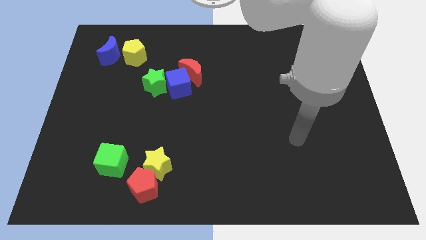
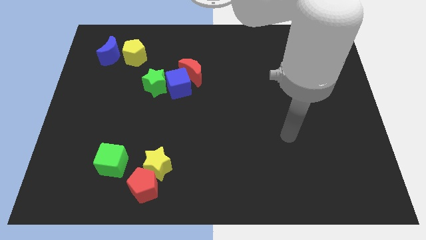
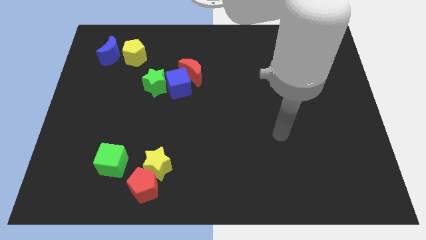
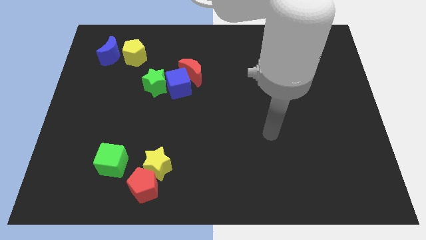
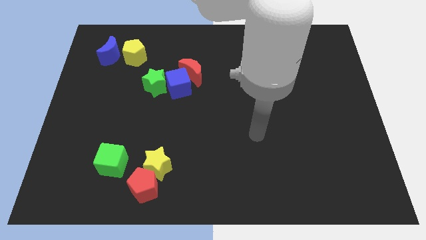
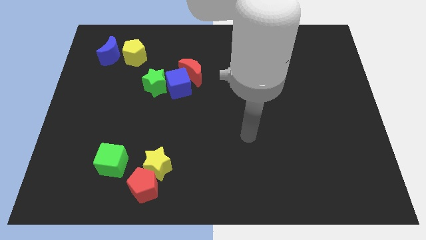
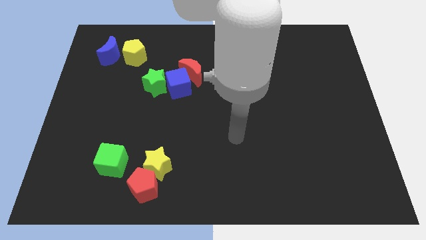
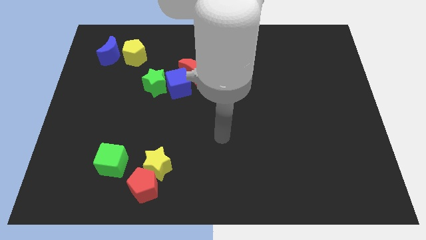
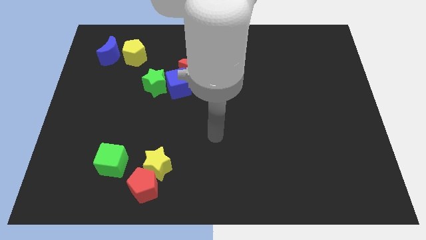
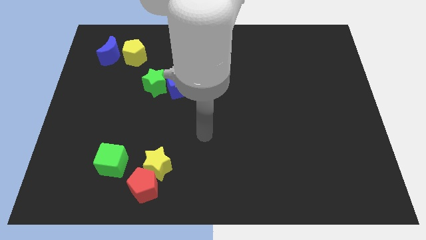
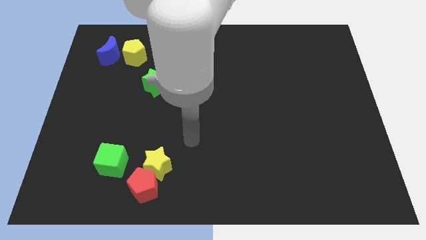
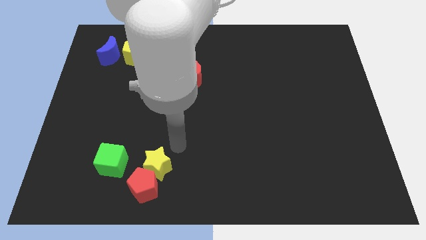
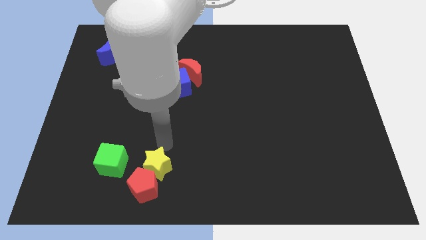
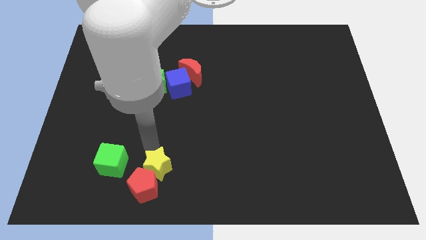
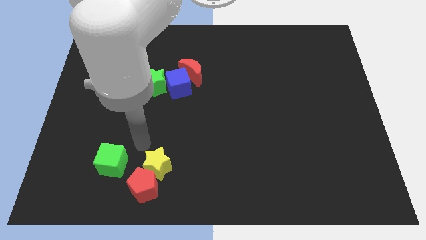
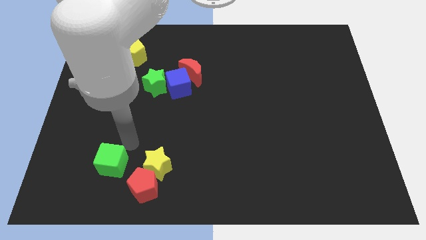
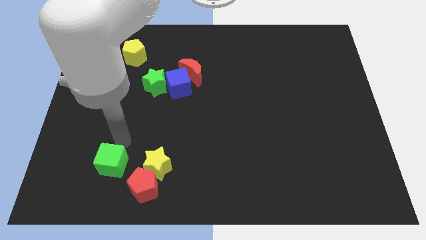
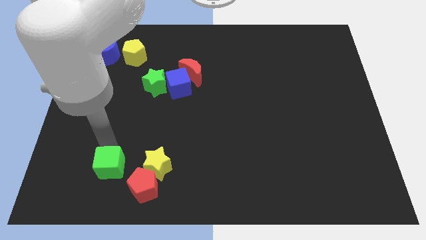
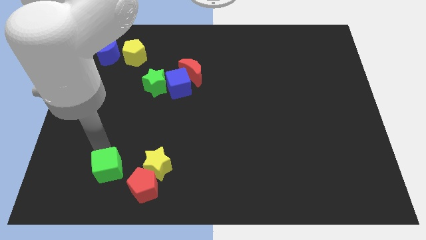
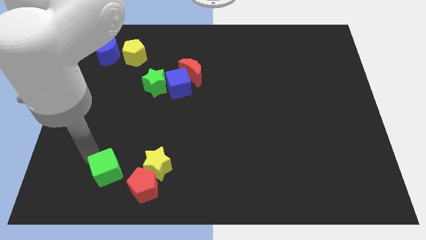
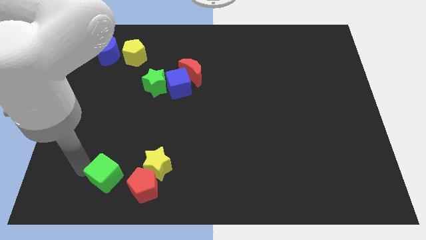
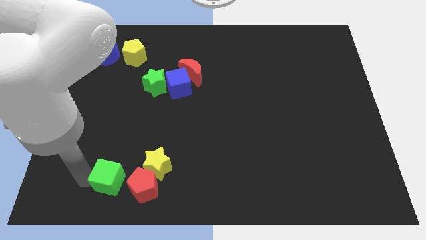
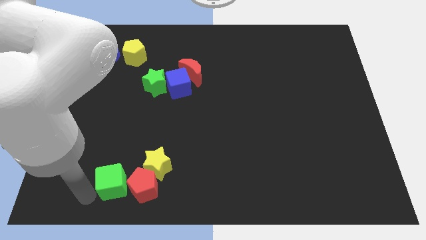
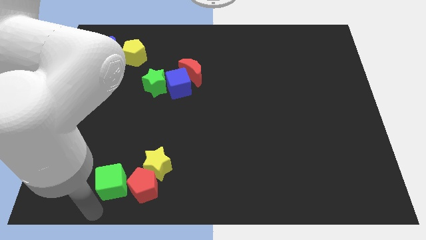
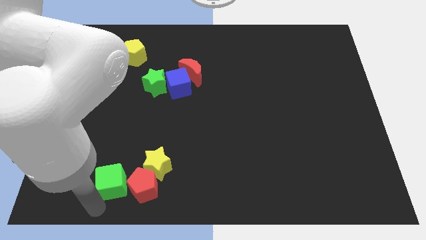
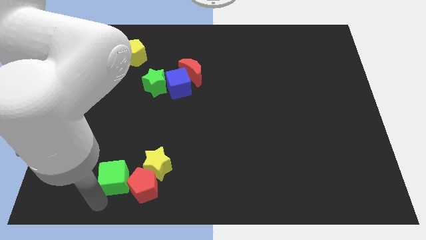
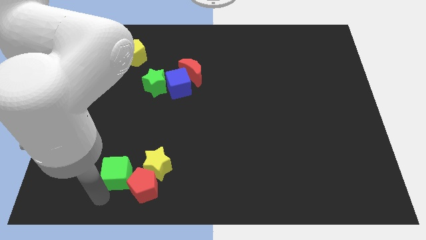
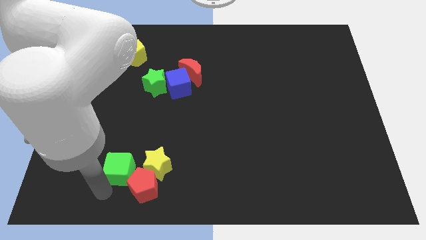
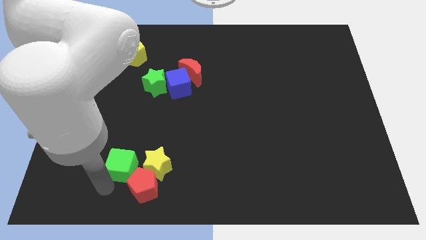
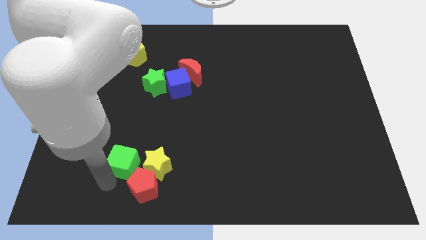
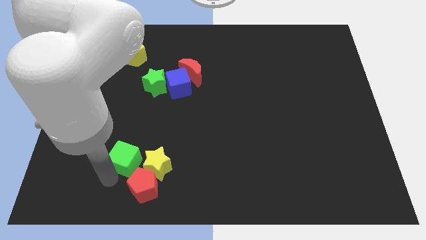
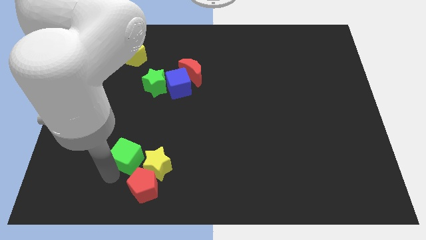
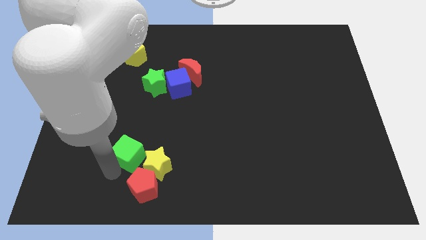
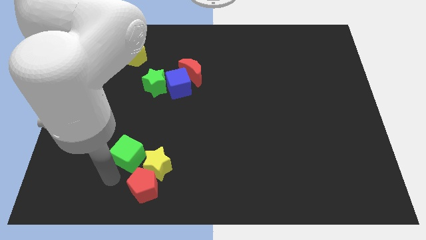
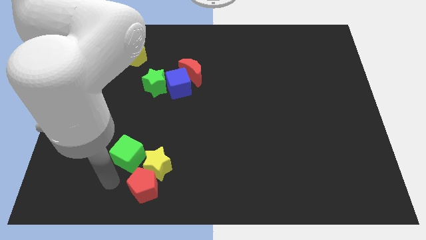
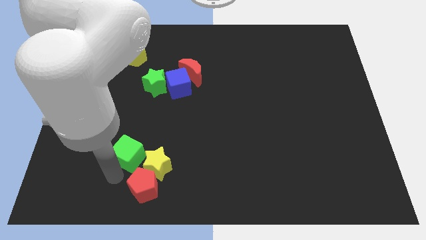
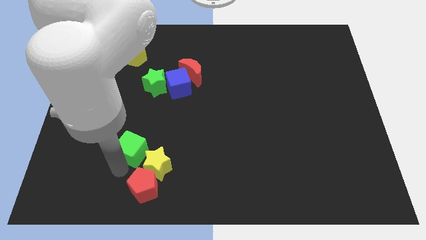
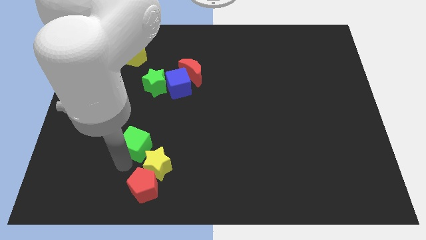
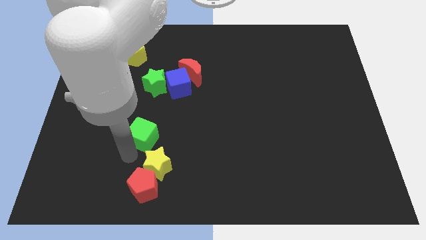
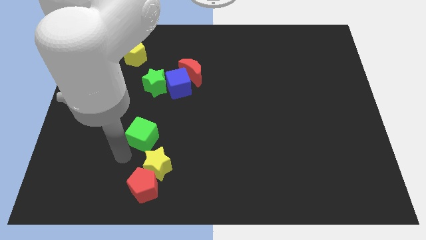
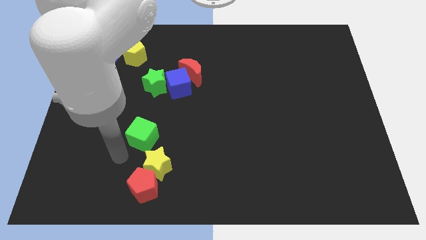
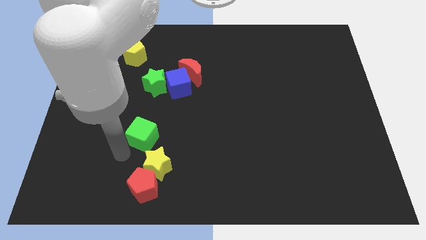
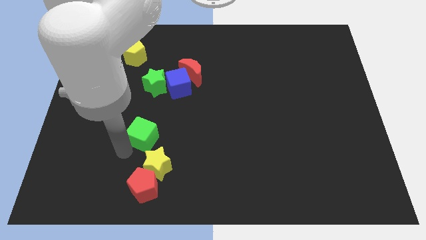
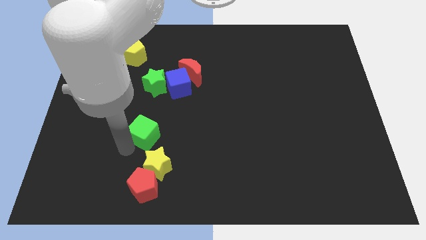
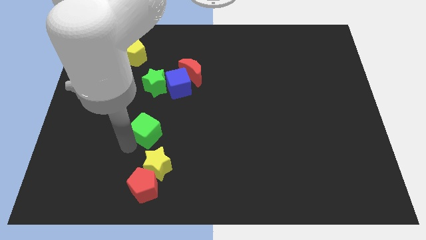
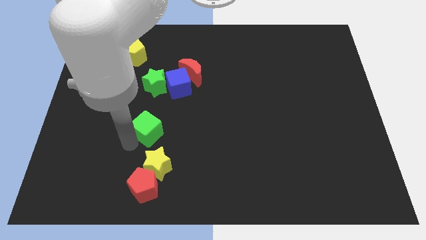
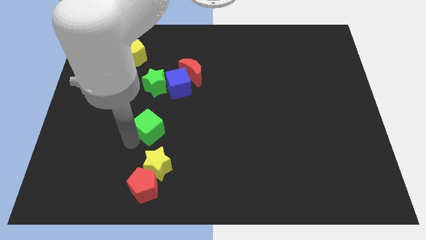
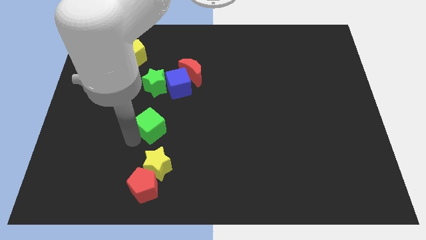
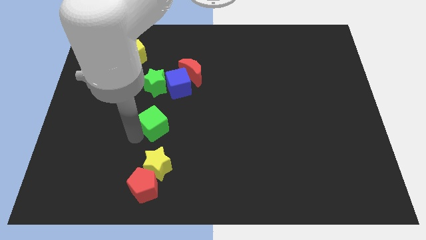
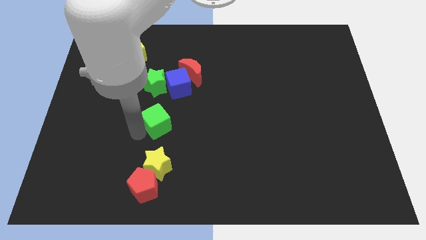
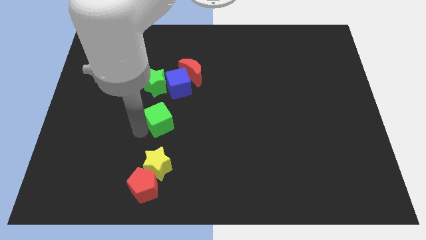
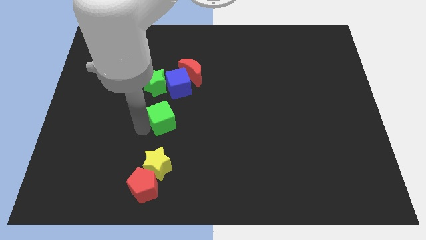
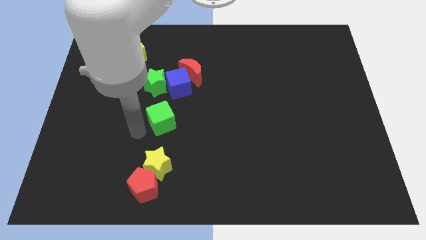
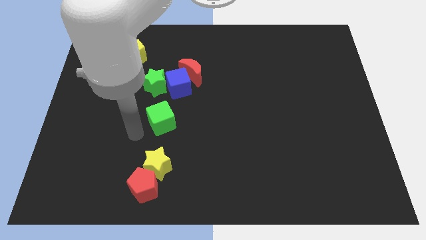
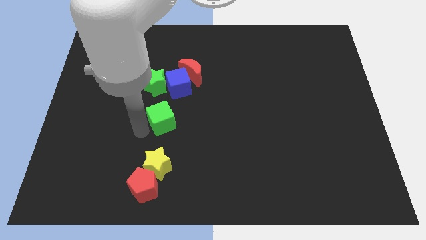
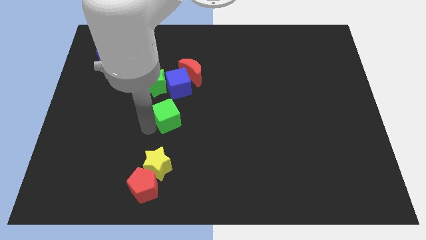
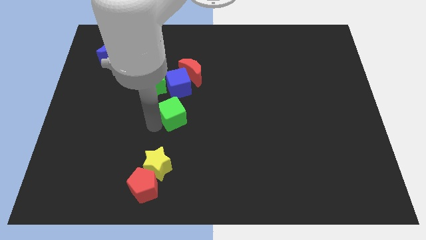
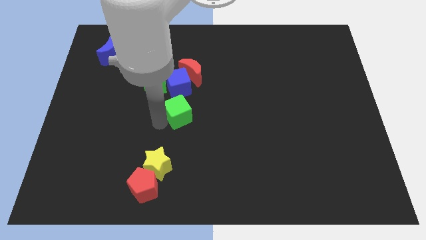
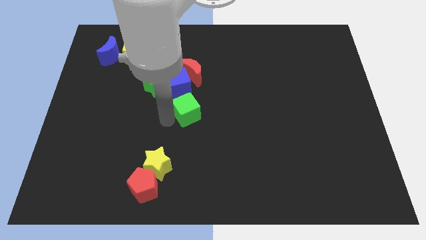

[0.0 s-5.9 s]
push the green cube diagonally down and to the right of the blue cube

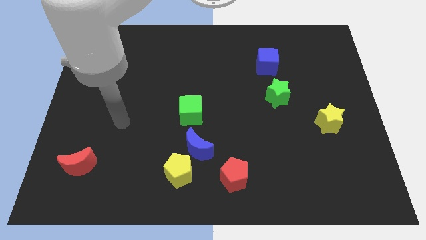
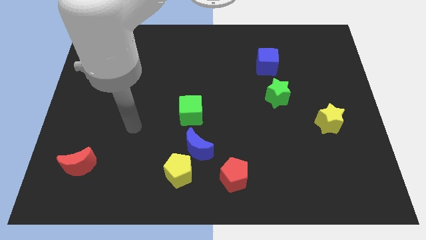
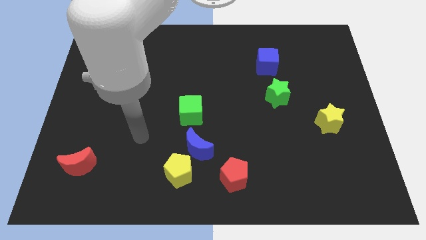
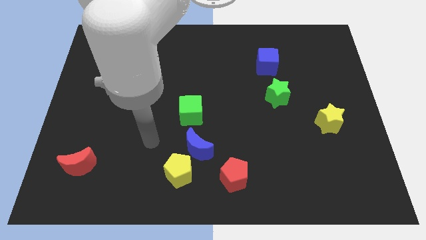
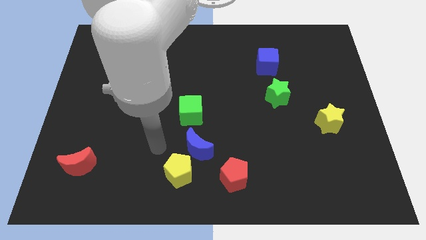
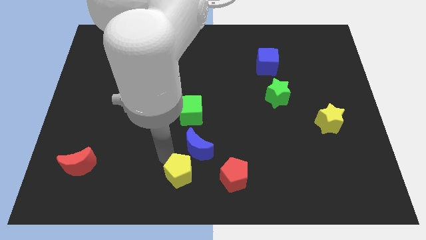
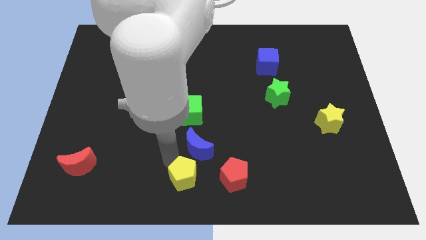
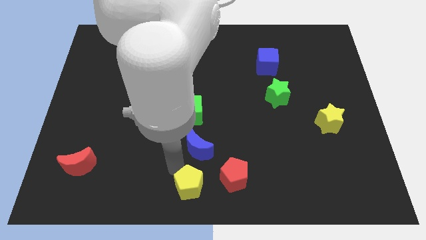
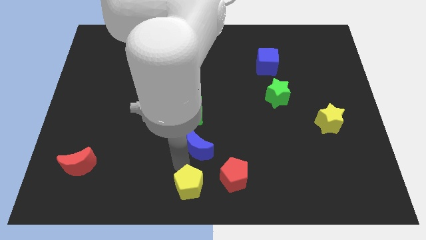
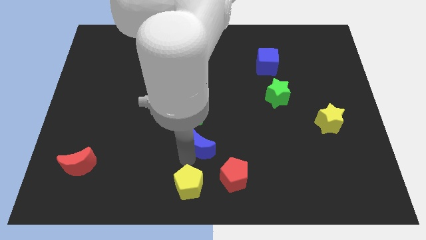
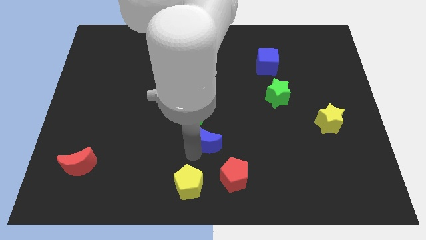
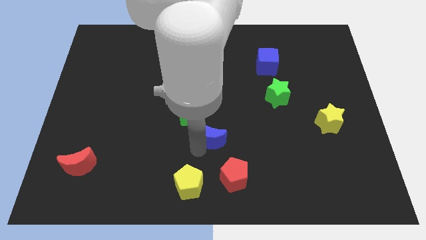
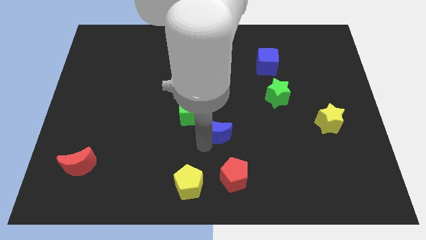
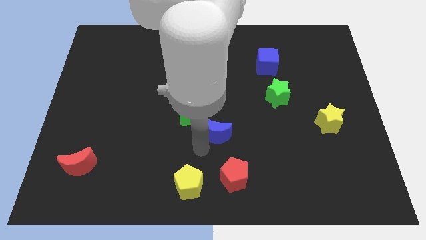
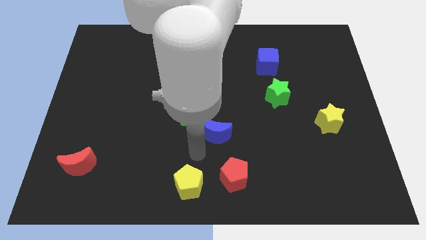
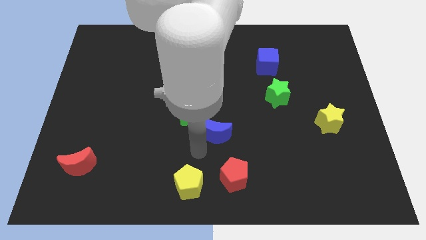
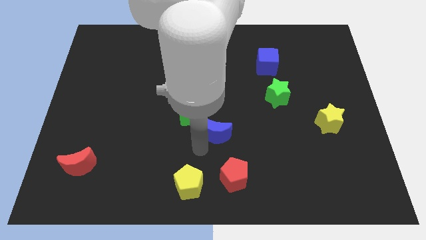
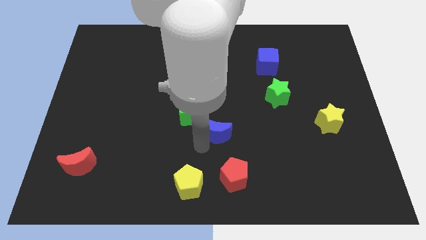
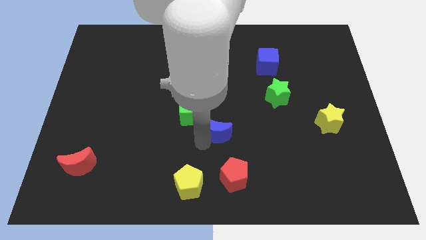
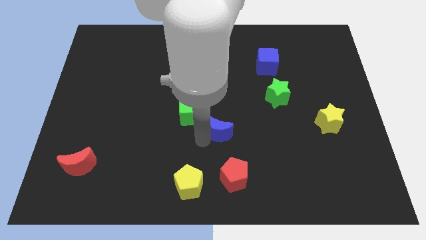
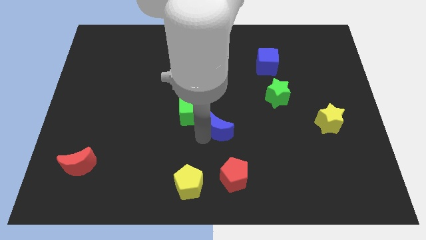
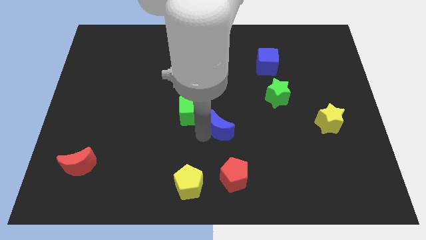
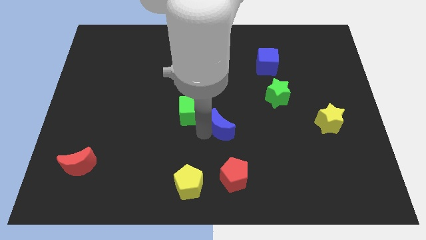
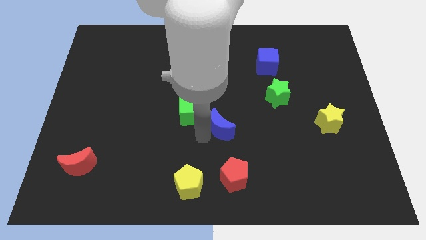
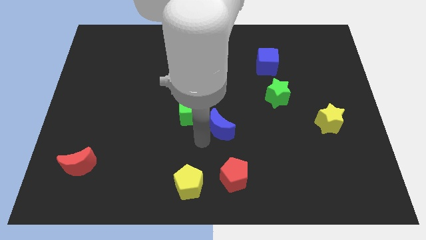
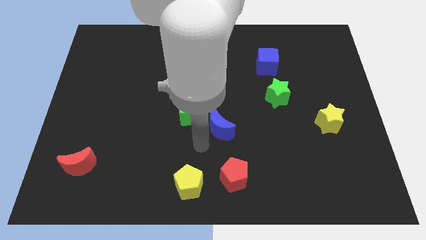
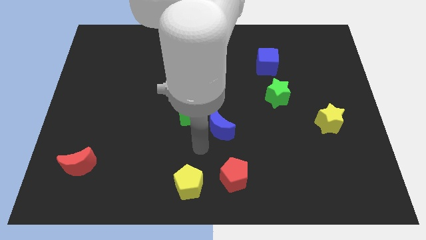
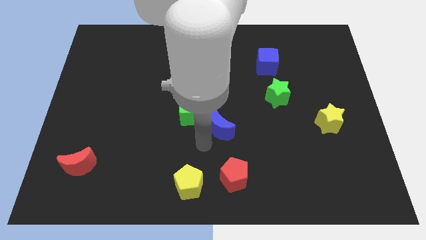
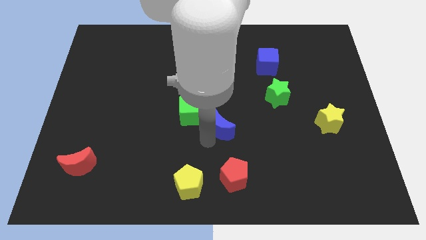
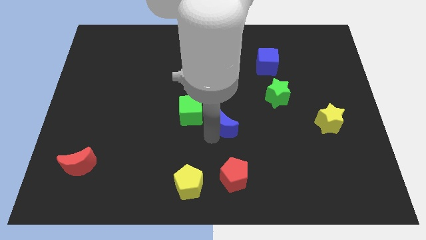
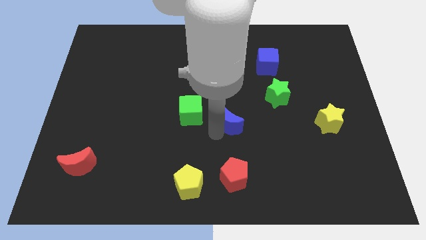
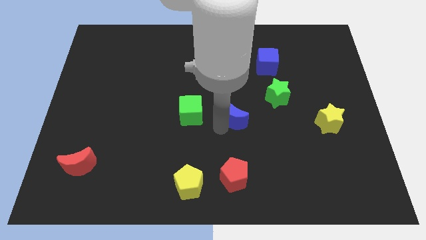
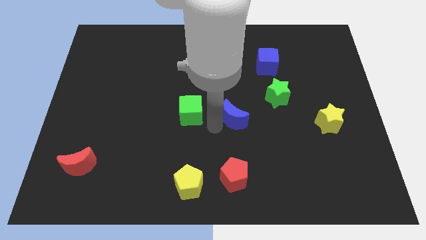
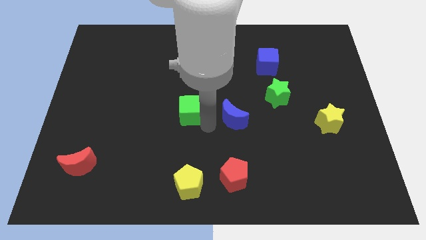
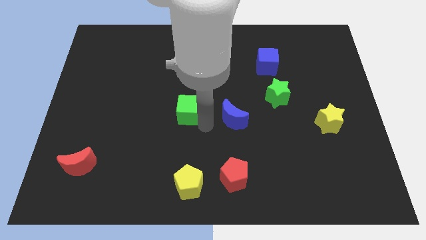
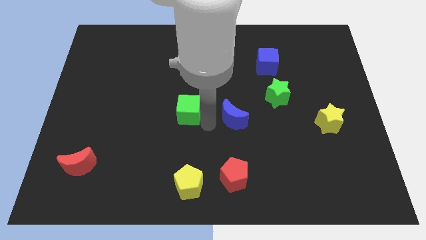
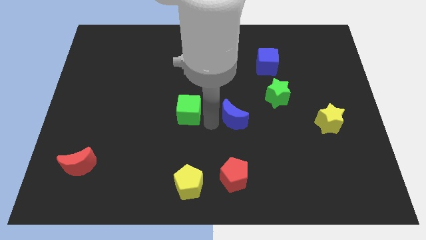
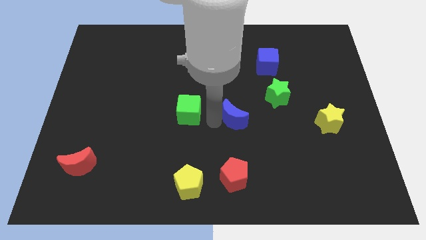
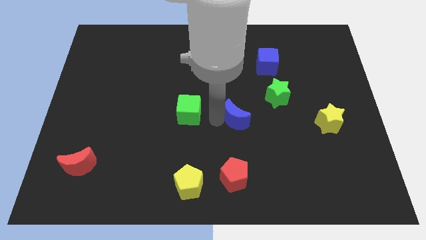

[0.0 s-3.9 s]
put the blue moon to the bottom left of the green star
